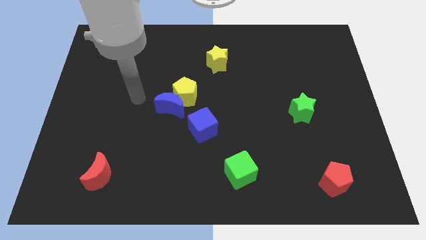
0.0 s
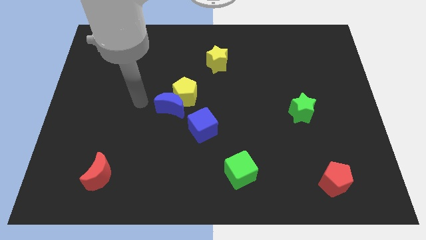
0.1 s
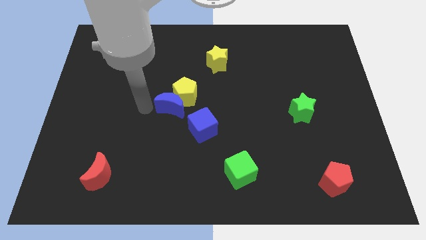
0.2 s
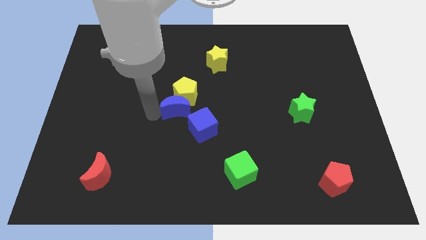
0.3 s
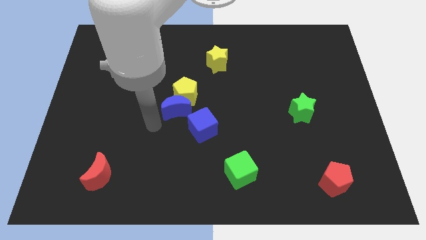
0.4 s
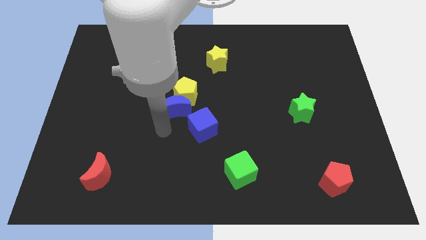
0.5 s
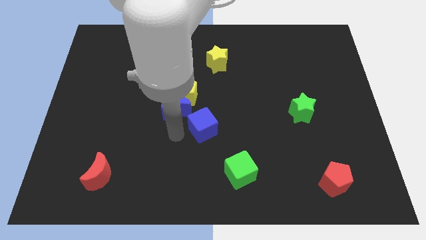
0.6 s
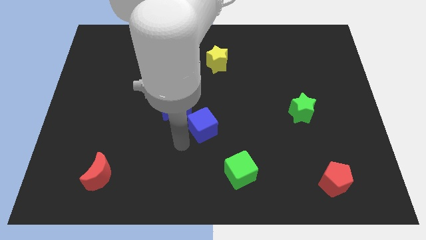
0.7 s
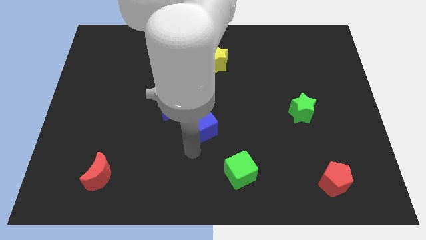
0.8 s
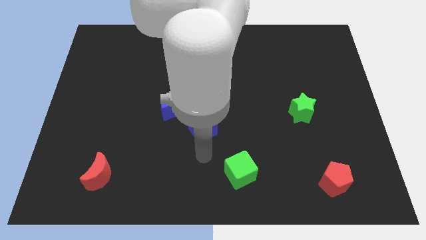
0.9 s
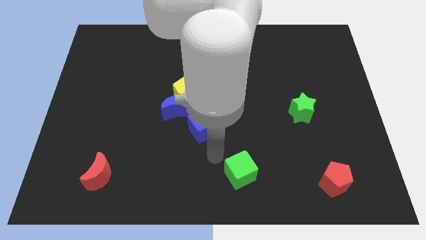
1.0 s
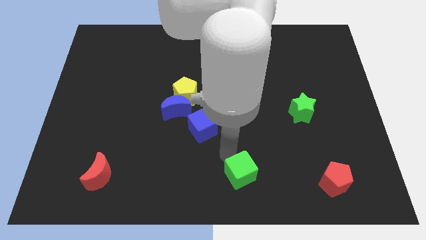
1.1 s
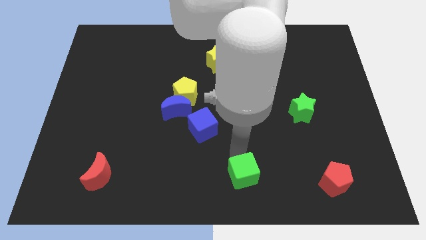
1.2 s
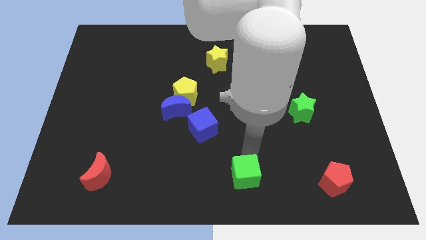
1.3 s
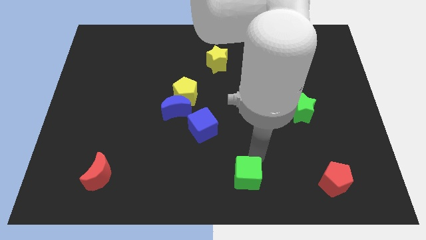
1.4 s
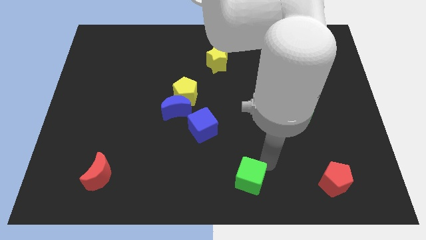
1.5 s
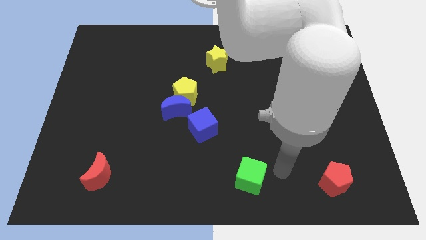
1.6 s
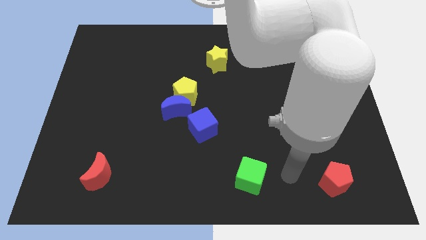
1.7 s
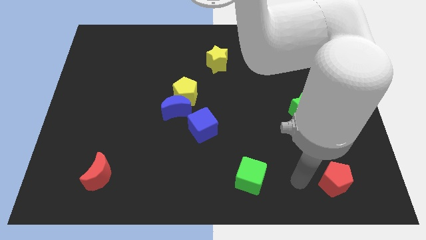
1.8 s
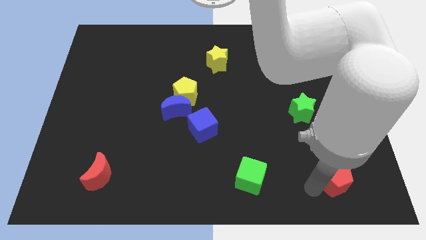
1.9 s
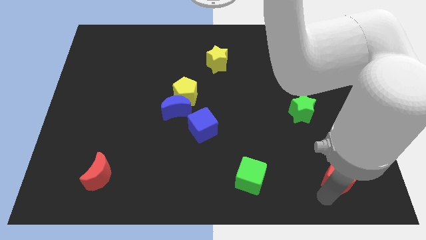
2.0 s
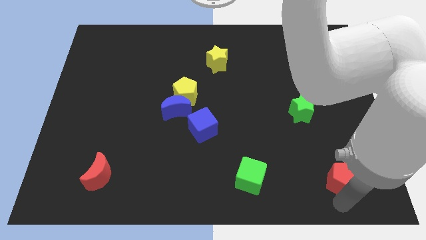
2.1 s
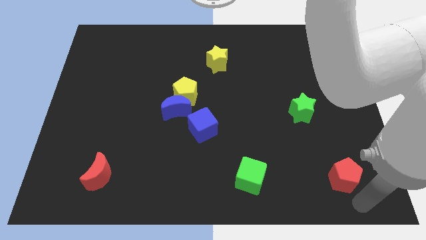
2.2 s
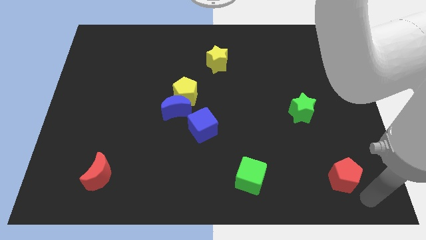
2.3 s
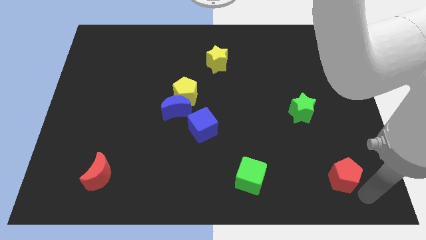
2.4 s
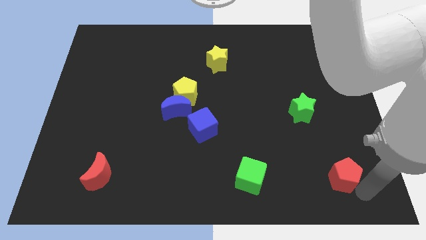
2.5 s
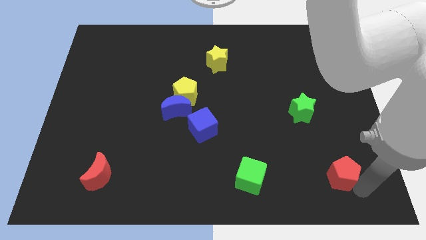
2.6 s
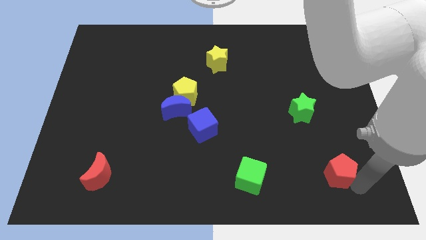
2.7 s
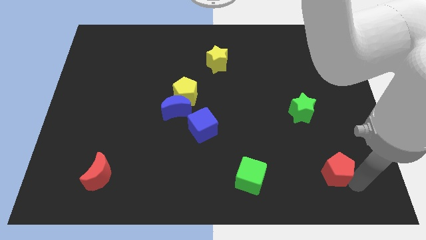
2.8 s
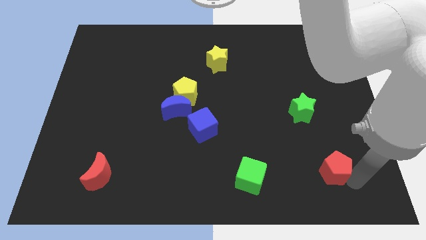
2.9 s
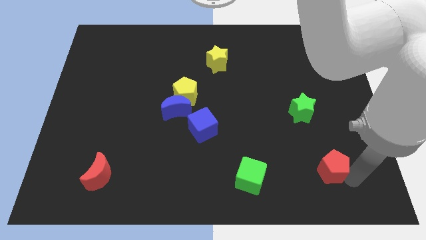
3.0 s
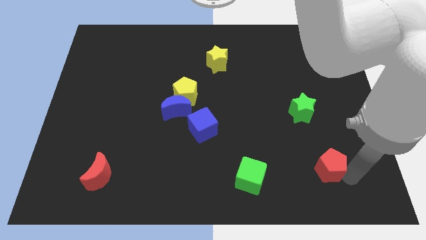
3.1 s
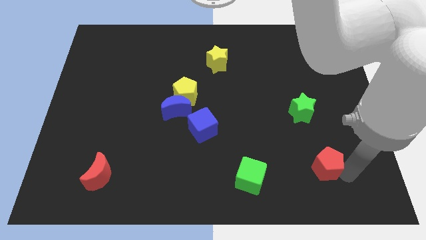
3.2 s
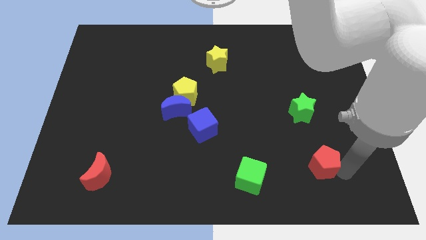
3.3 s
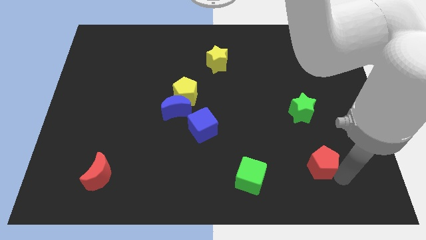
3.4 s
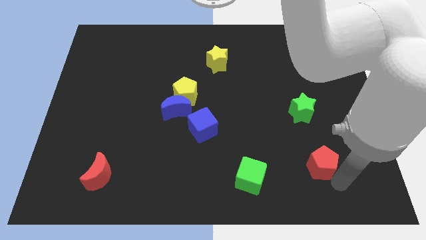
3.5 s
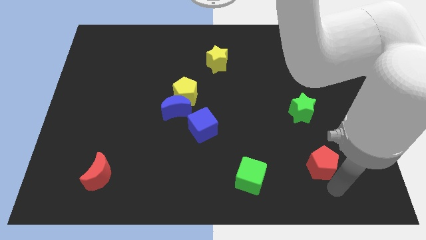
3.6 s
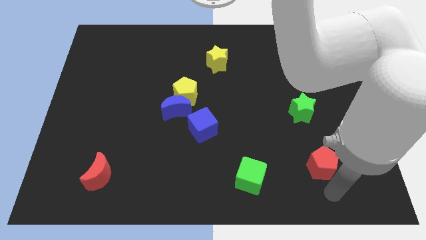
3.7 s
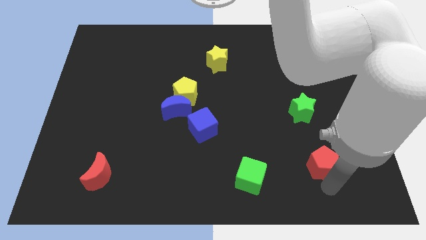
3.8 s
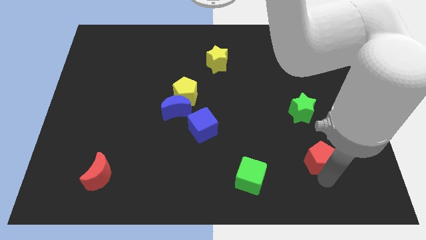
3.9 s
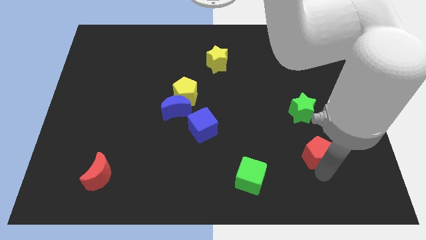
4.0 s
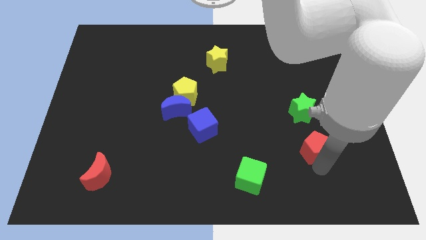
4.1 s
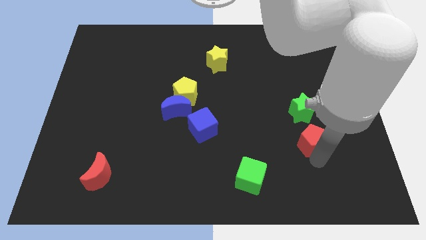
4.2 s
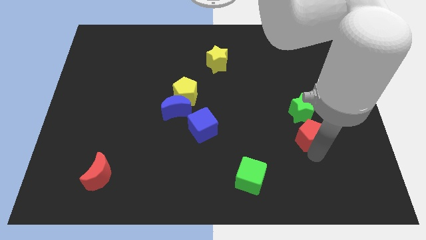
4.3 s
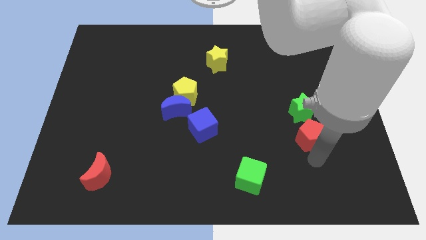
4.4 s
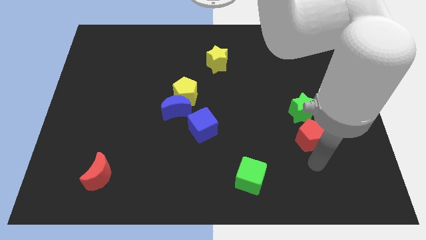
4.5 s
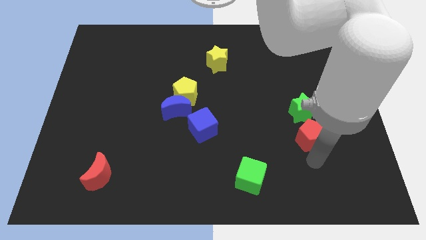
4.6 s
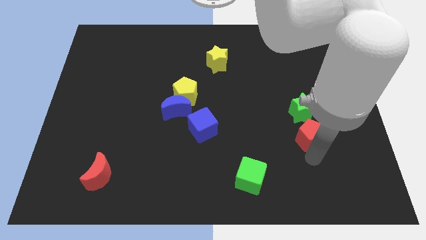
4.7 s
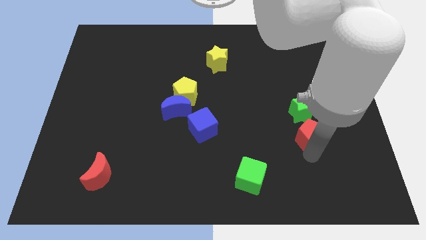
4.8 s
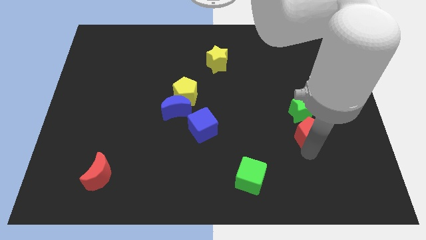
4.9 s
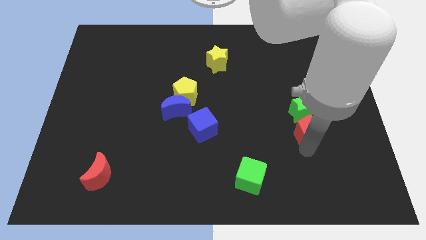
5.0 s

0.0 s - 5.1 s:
push the red pentagon next to the green star

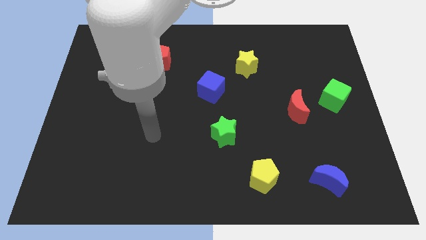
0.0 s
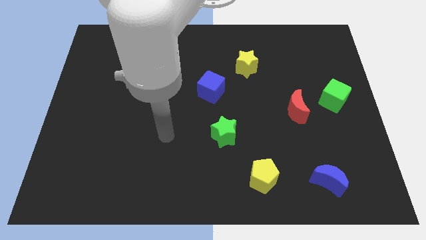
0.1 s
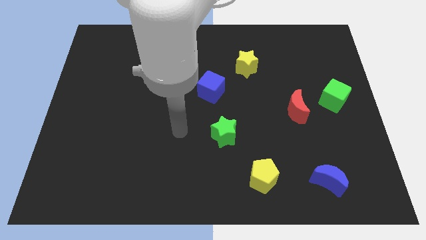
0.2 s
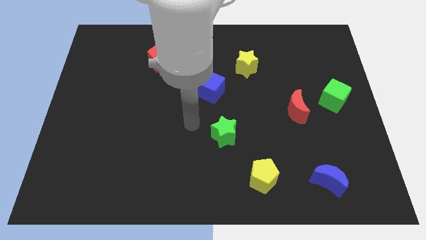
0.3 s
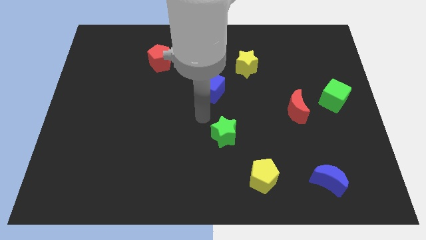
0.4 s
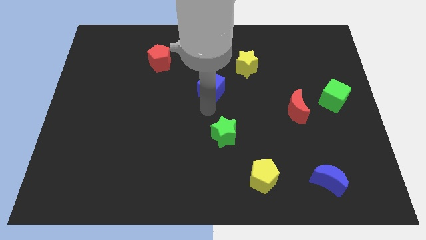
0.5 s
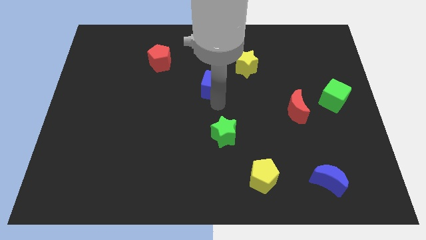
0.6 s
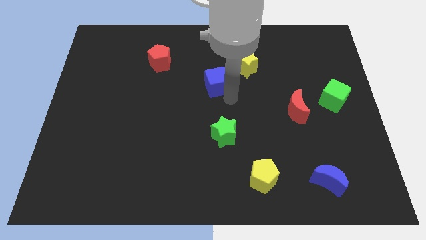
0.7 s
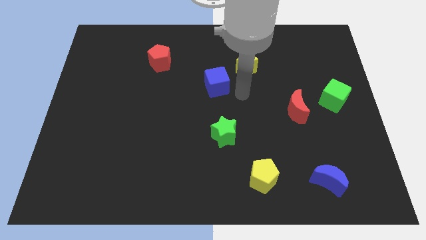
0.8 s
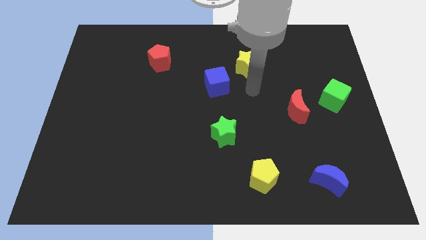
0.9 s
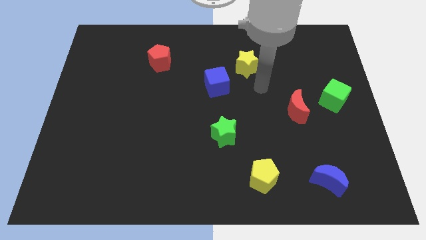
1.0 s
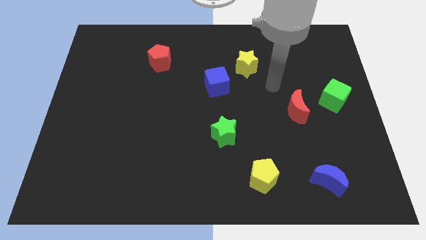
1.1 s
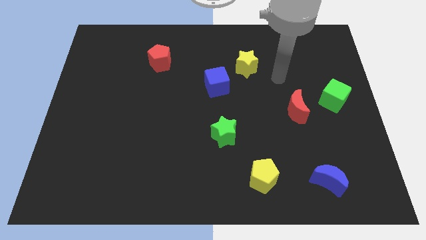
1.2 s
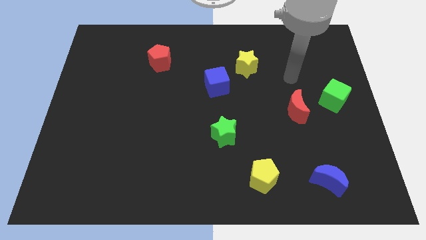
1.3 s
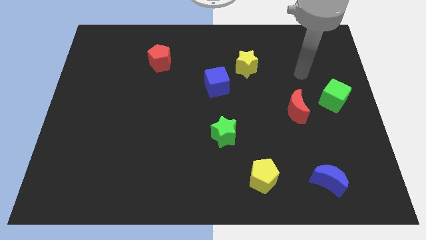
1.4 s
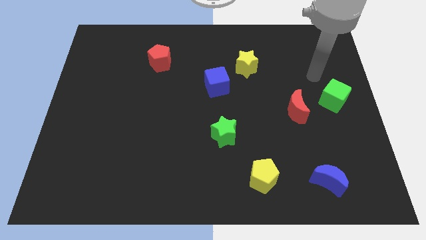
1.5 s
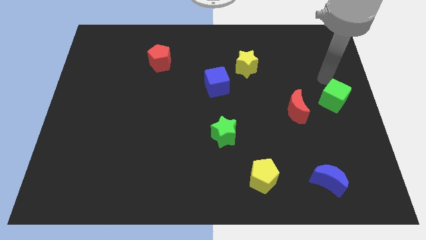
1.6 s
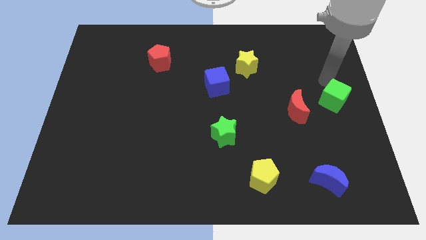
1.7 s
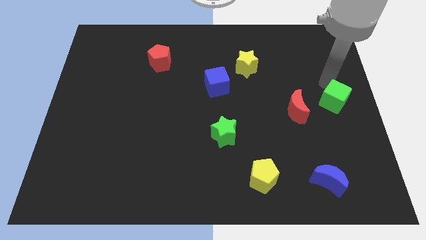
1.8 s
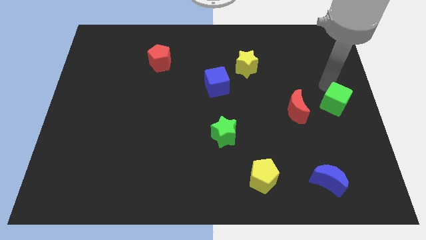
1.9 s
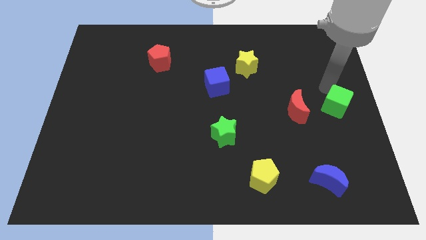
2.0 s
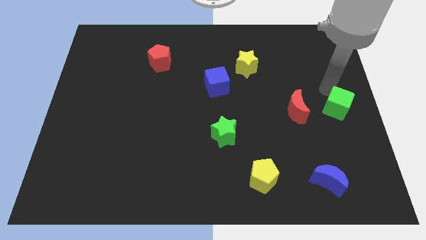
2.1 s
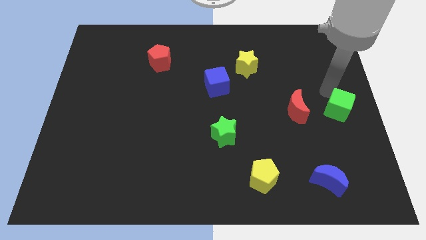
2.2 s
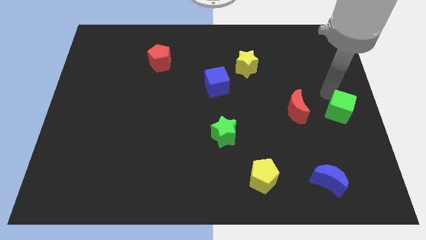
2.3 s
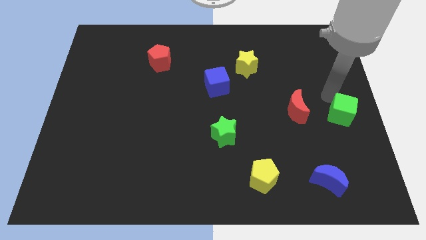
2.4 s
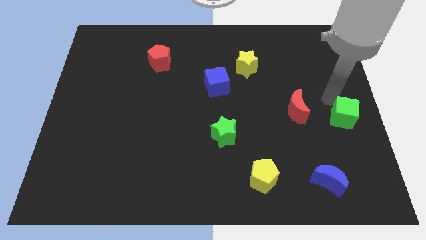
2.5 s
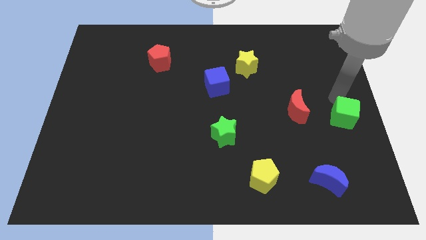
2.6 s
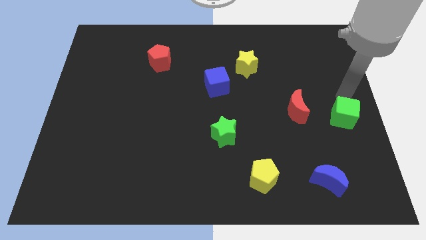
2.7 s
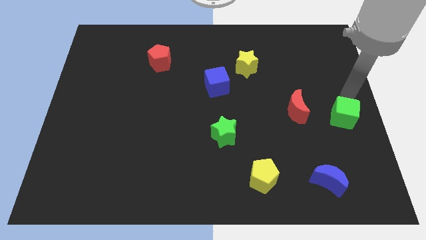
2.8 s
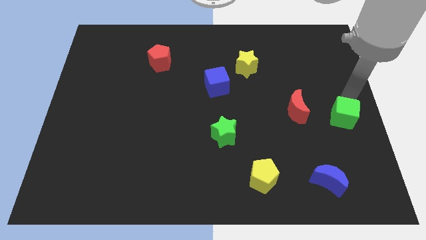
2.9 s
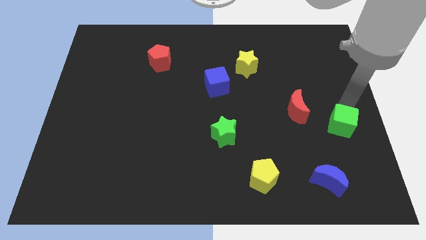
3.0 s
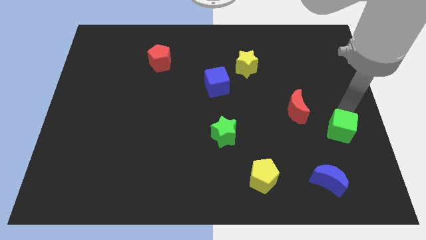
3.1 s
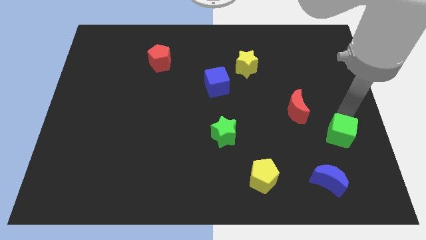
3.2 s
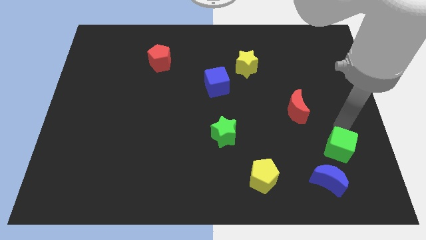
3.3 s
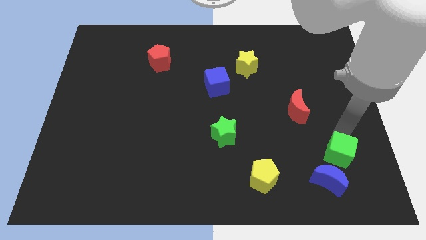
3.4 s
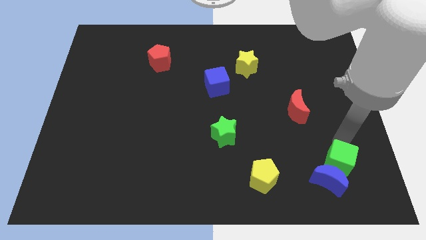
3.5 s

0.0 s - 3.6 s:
put the green cube close to the blue moon
